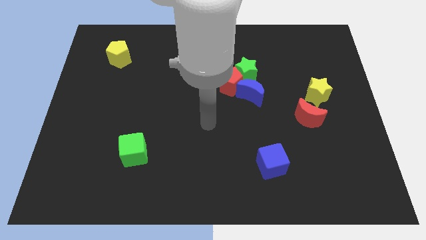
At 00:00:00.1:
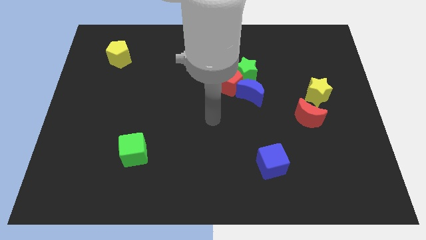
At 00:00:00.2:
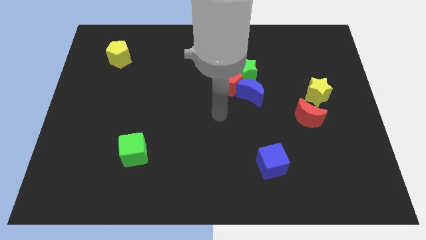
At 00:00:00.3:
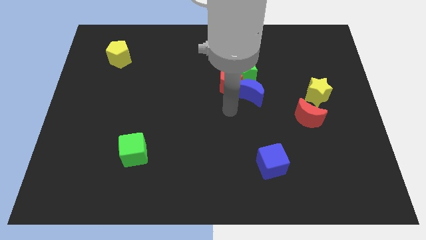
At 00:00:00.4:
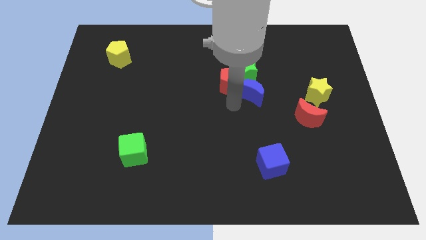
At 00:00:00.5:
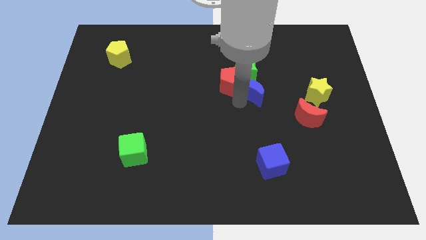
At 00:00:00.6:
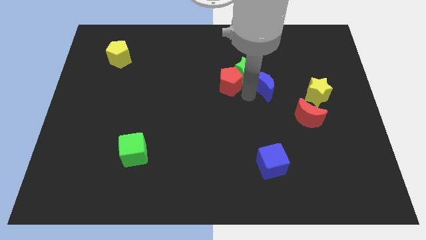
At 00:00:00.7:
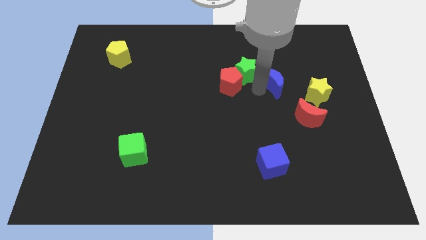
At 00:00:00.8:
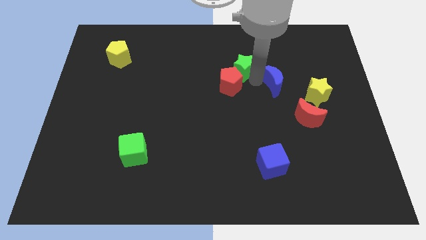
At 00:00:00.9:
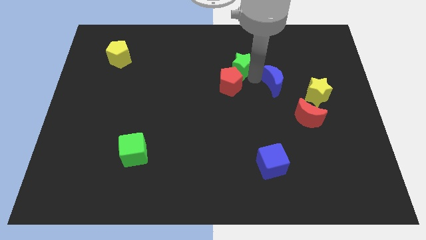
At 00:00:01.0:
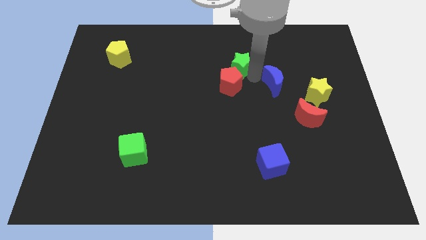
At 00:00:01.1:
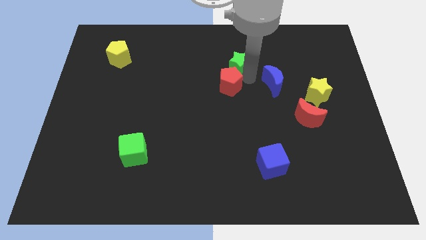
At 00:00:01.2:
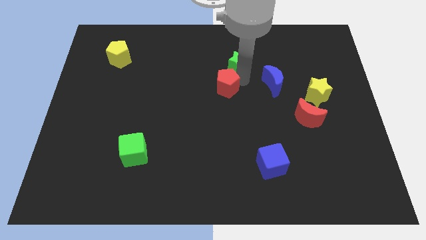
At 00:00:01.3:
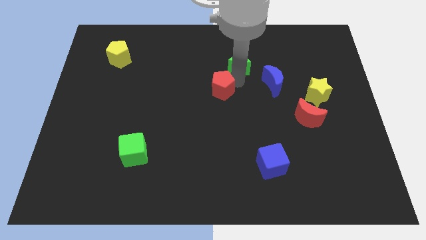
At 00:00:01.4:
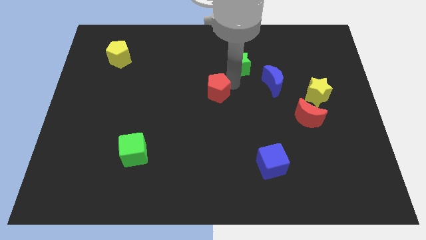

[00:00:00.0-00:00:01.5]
separate the red pentagon from the green star and blue moon

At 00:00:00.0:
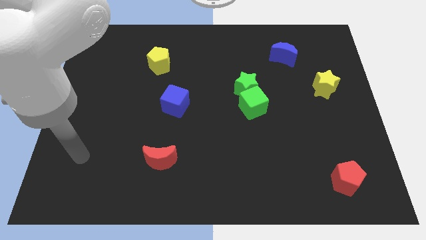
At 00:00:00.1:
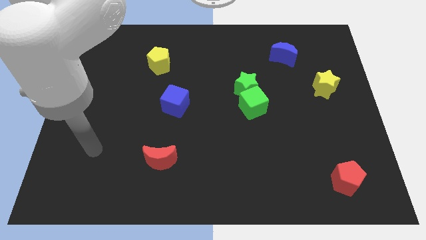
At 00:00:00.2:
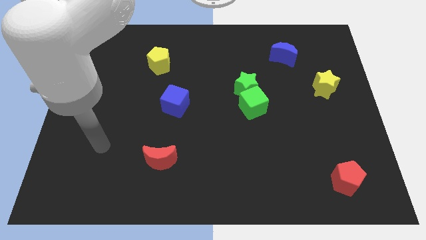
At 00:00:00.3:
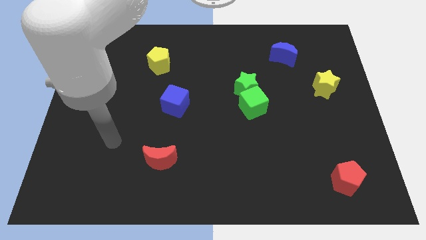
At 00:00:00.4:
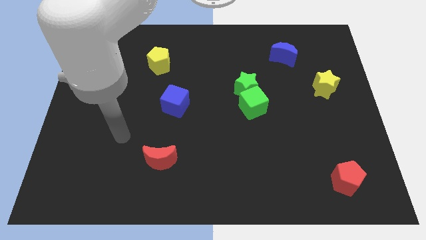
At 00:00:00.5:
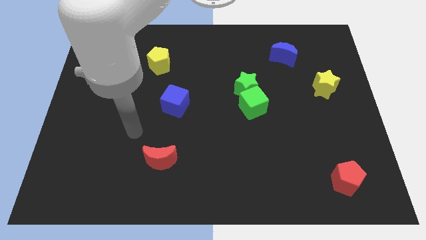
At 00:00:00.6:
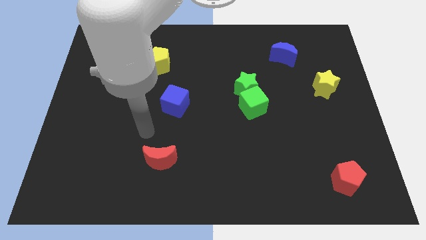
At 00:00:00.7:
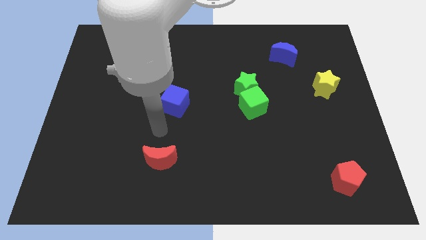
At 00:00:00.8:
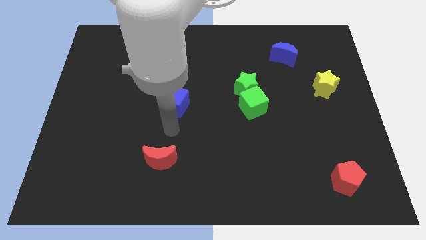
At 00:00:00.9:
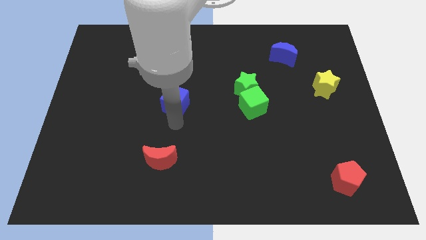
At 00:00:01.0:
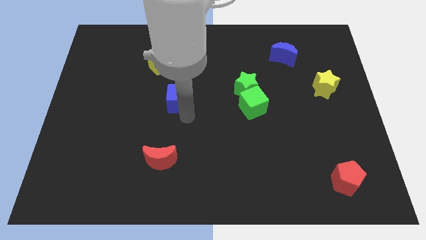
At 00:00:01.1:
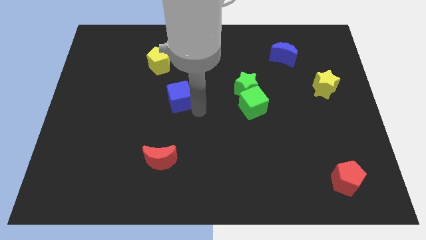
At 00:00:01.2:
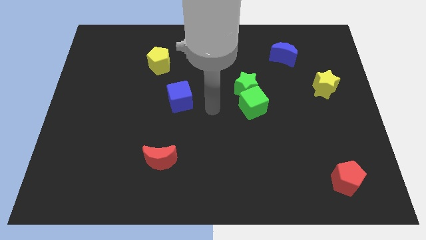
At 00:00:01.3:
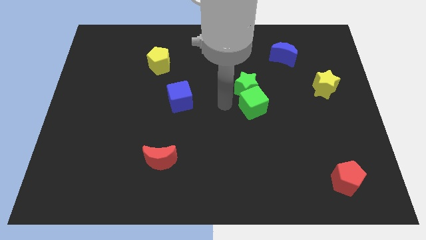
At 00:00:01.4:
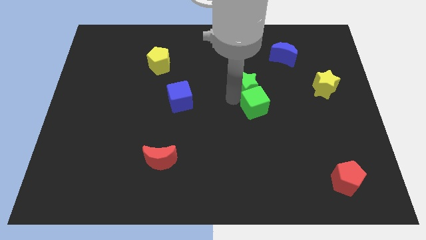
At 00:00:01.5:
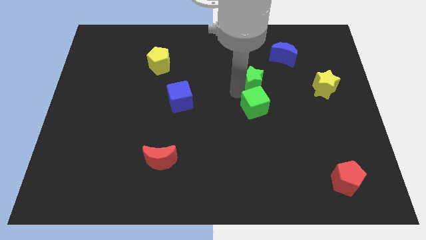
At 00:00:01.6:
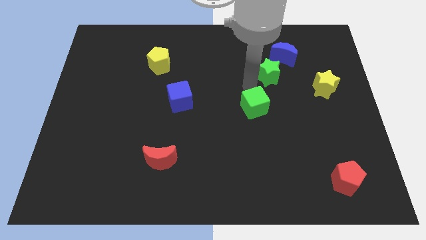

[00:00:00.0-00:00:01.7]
pull the green cube apart from the green star

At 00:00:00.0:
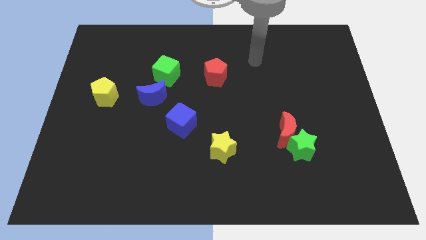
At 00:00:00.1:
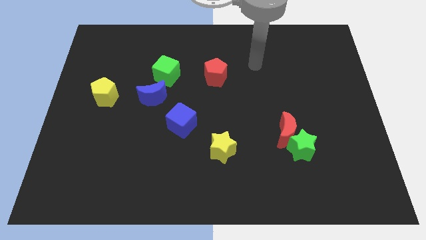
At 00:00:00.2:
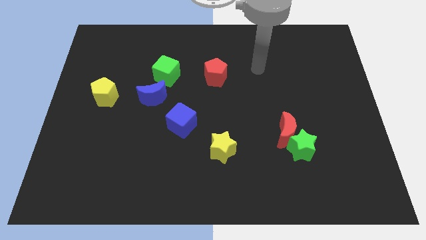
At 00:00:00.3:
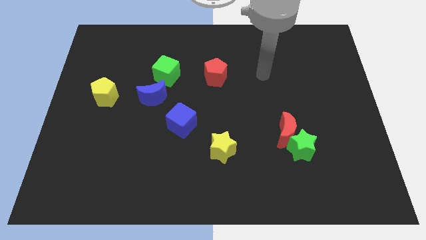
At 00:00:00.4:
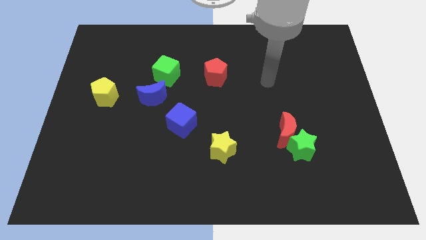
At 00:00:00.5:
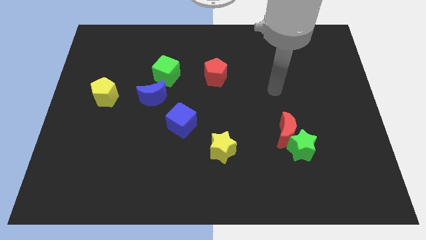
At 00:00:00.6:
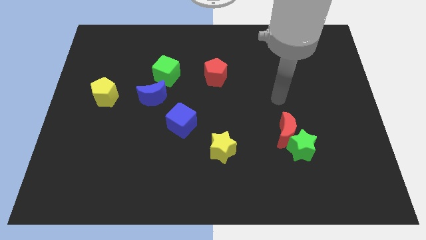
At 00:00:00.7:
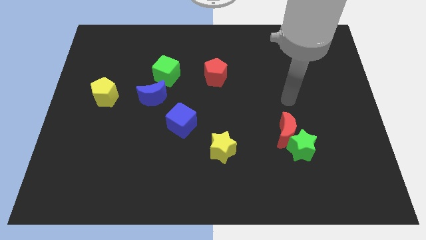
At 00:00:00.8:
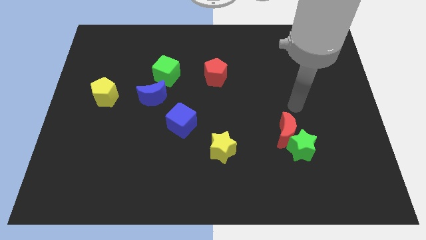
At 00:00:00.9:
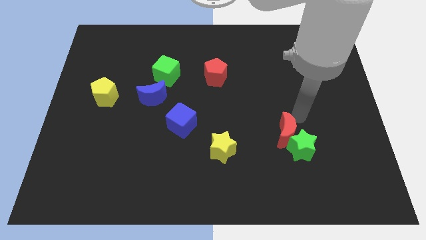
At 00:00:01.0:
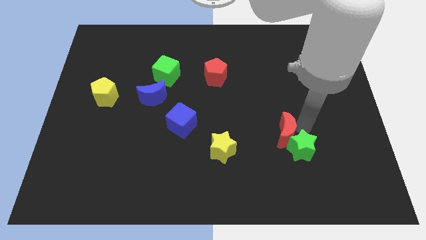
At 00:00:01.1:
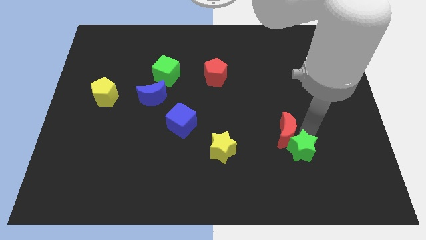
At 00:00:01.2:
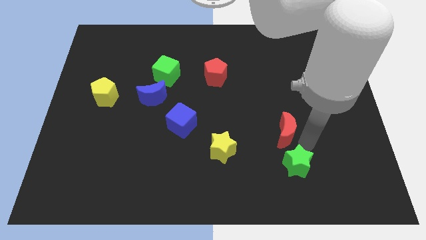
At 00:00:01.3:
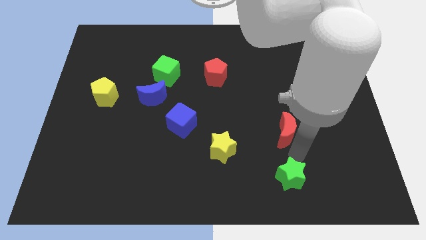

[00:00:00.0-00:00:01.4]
pull the red moon apart from the green star

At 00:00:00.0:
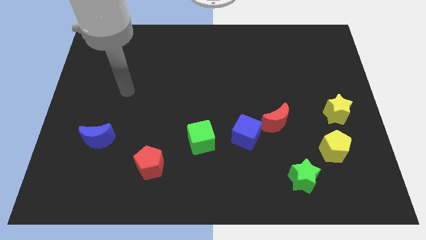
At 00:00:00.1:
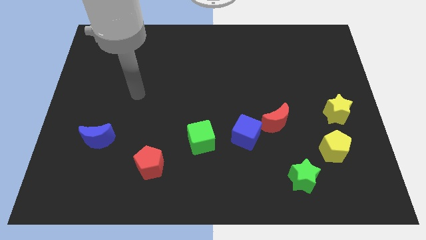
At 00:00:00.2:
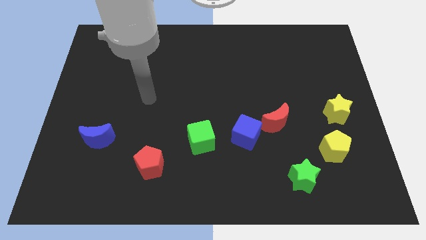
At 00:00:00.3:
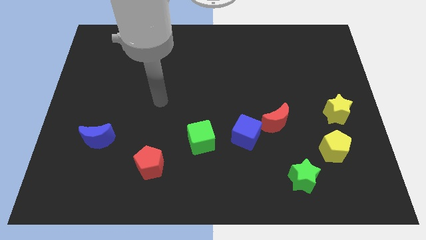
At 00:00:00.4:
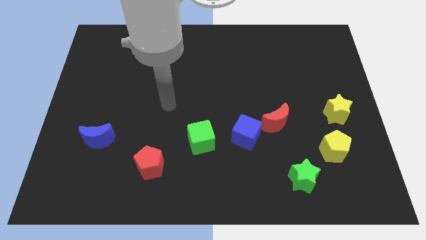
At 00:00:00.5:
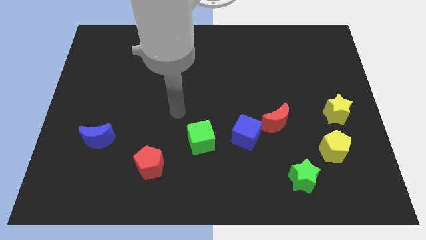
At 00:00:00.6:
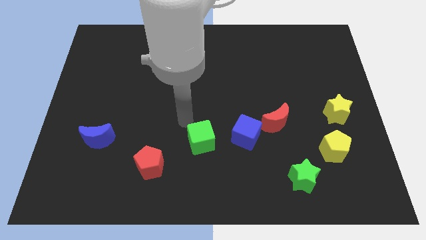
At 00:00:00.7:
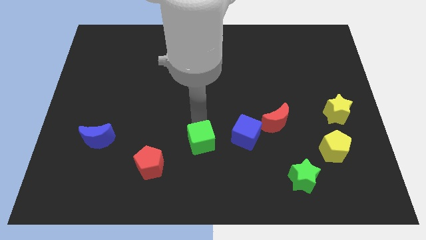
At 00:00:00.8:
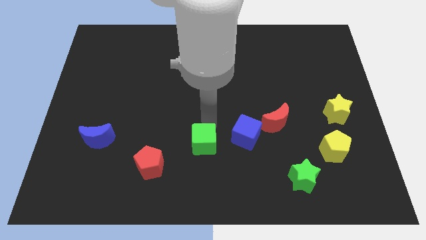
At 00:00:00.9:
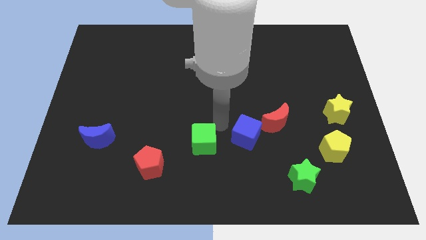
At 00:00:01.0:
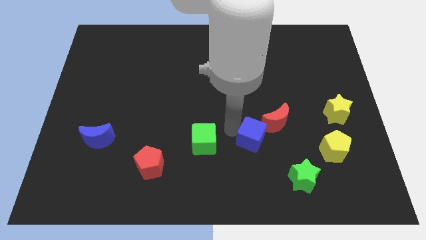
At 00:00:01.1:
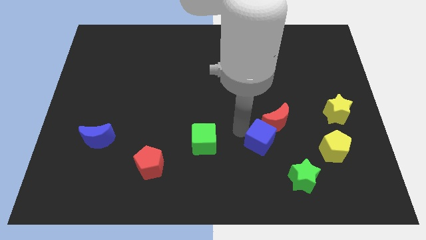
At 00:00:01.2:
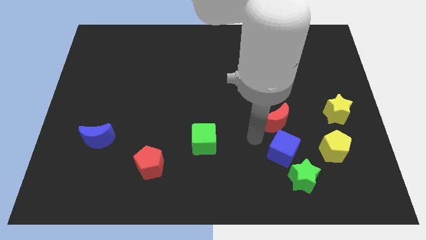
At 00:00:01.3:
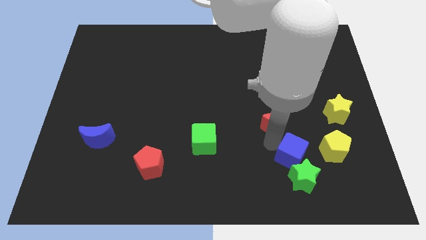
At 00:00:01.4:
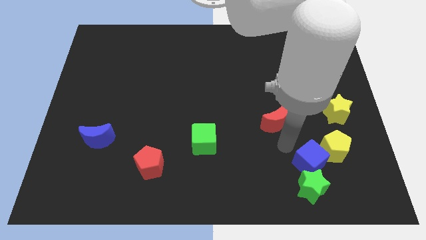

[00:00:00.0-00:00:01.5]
pull the red moon apart from the blue cube

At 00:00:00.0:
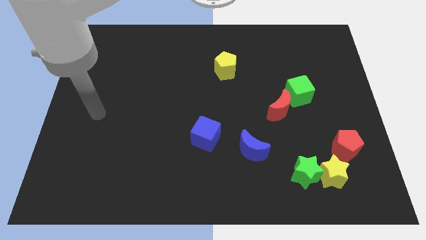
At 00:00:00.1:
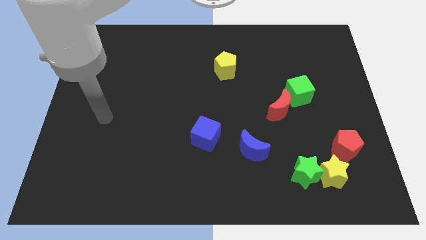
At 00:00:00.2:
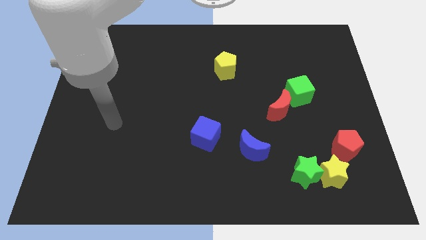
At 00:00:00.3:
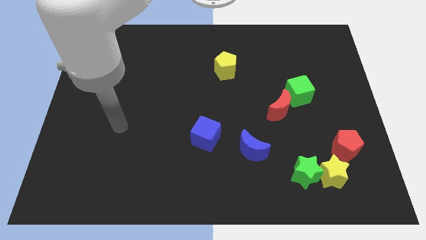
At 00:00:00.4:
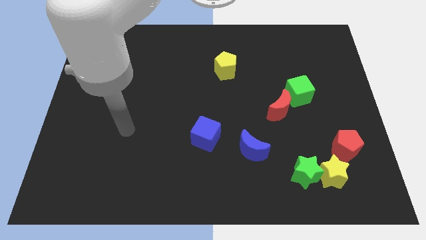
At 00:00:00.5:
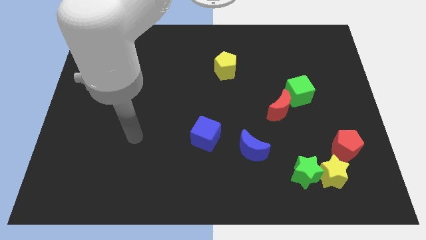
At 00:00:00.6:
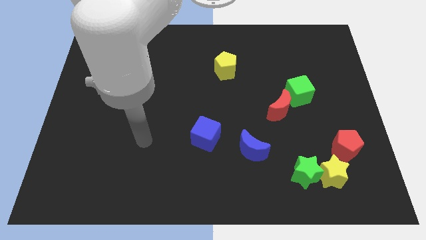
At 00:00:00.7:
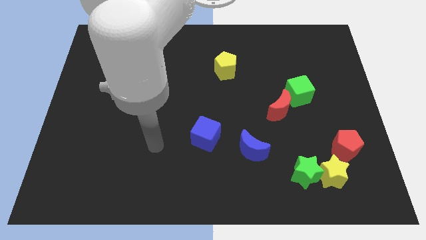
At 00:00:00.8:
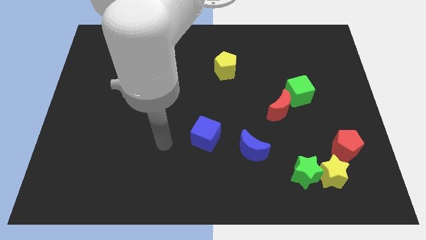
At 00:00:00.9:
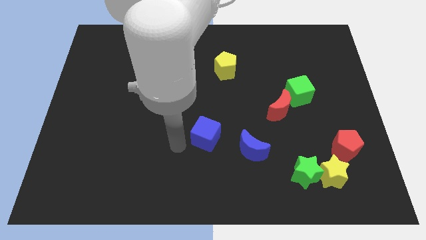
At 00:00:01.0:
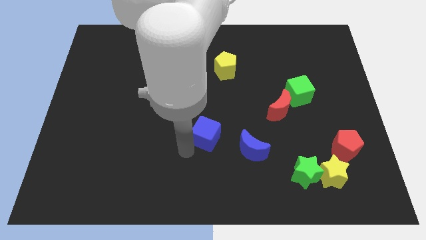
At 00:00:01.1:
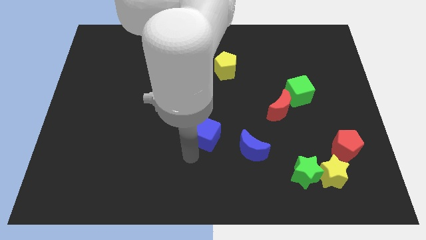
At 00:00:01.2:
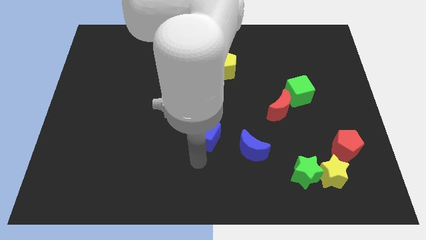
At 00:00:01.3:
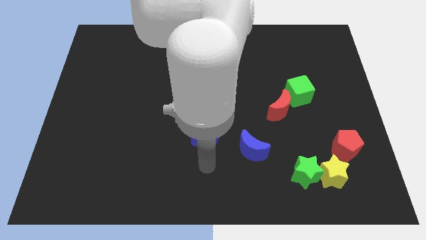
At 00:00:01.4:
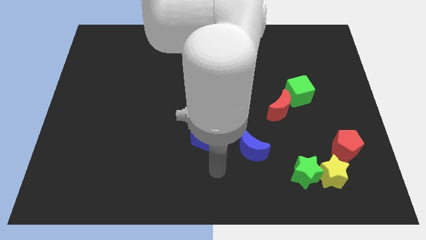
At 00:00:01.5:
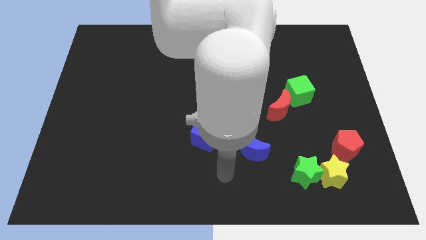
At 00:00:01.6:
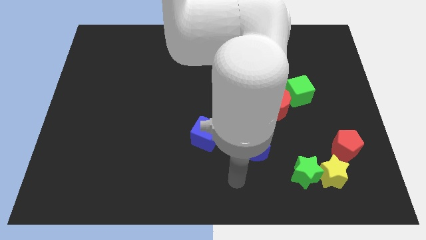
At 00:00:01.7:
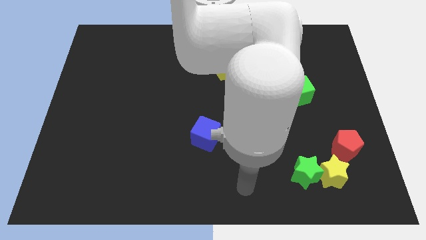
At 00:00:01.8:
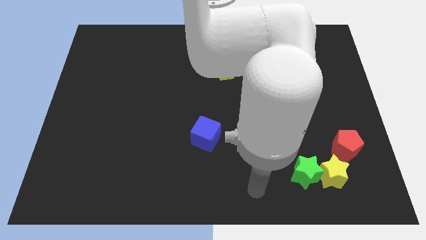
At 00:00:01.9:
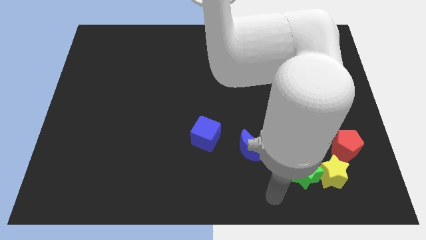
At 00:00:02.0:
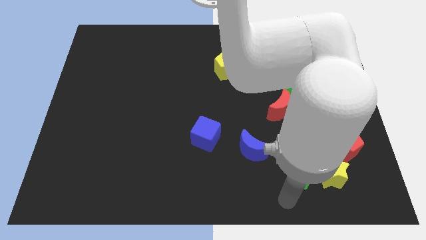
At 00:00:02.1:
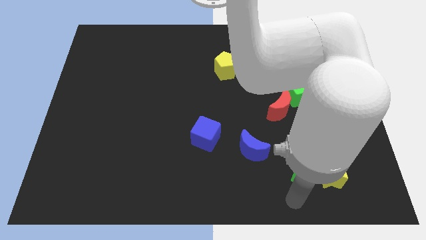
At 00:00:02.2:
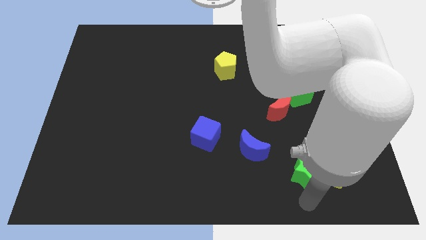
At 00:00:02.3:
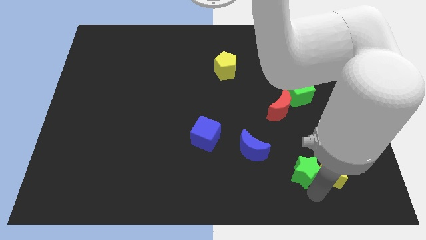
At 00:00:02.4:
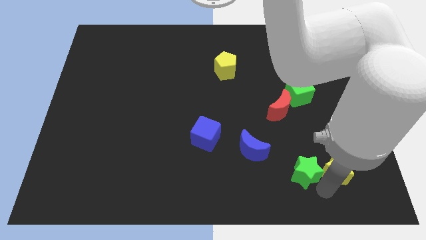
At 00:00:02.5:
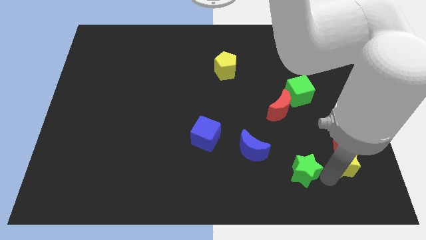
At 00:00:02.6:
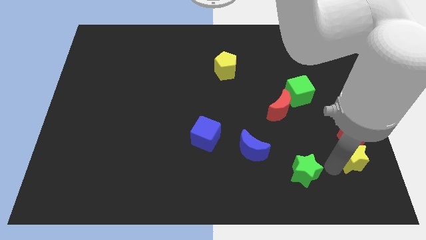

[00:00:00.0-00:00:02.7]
separate the green star from the yellow star

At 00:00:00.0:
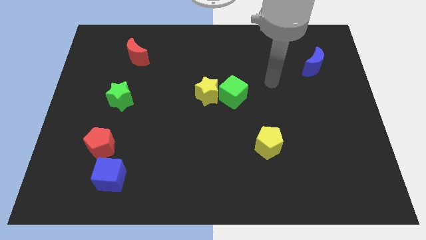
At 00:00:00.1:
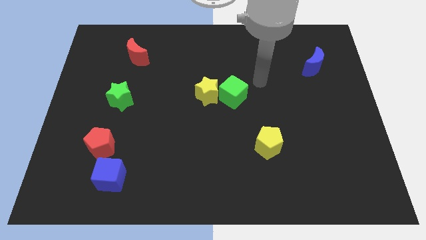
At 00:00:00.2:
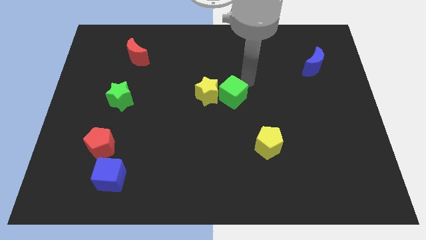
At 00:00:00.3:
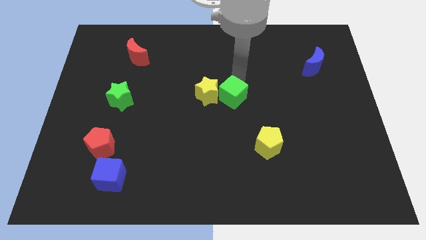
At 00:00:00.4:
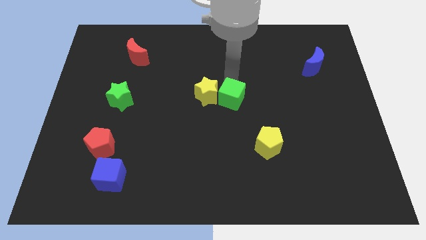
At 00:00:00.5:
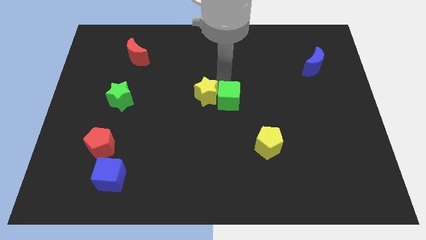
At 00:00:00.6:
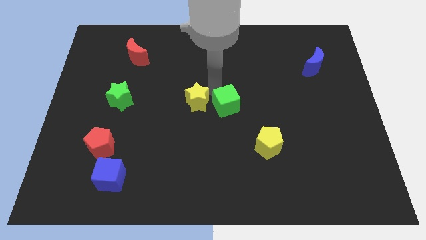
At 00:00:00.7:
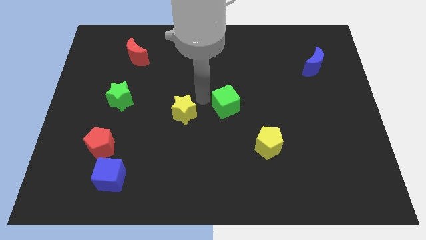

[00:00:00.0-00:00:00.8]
move the green cube away from the yellow star
